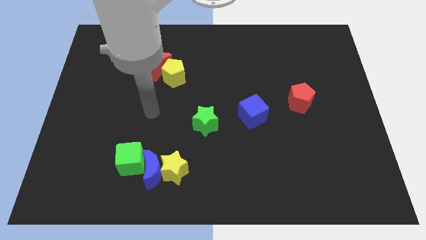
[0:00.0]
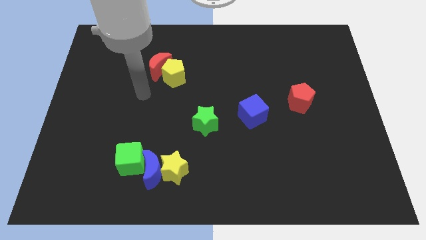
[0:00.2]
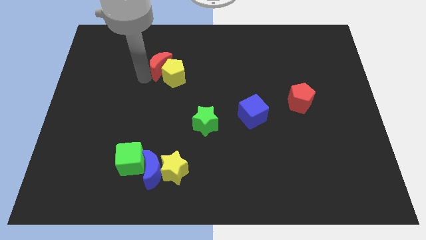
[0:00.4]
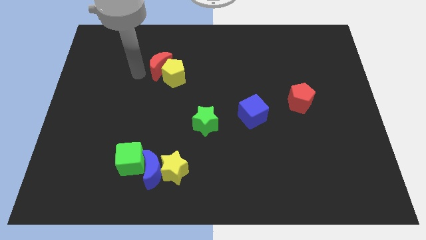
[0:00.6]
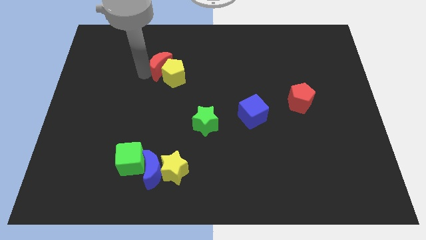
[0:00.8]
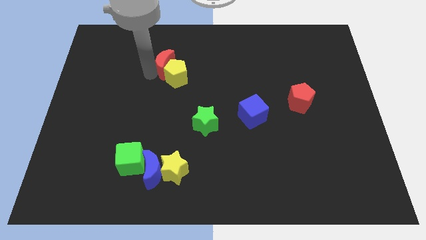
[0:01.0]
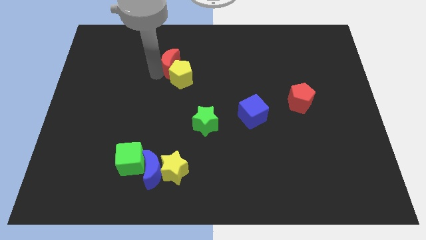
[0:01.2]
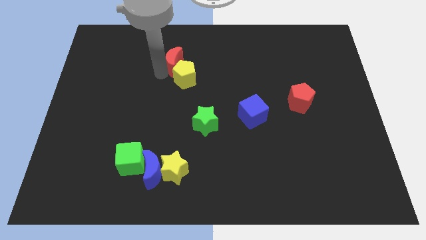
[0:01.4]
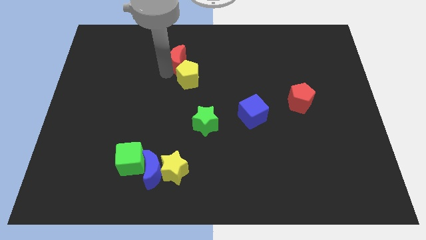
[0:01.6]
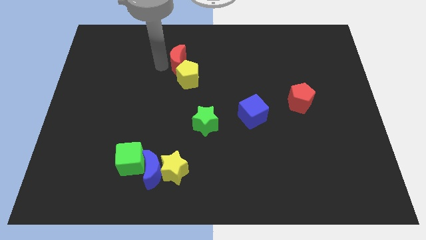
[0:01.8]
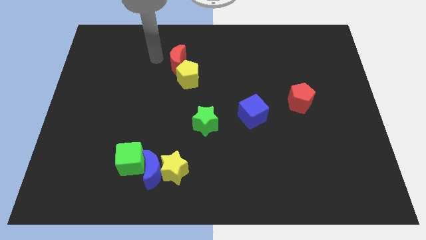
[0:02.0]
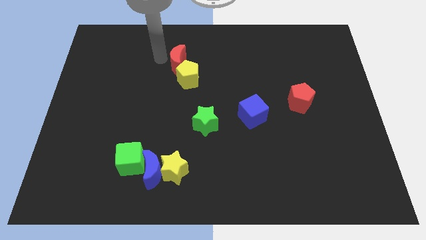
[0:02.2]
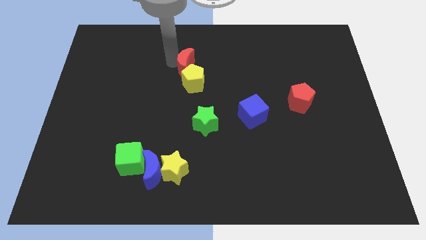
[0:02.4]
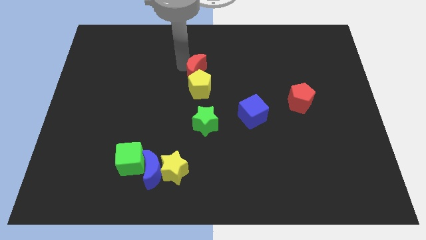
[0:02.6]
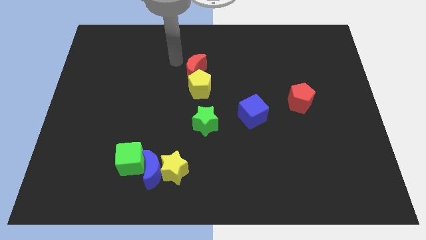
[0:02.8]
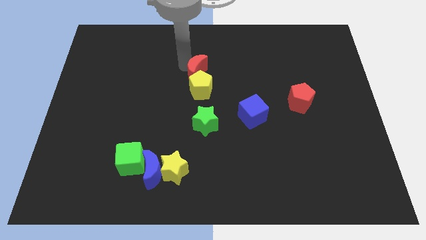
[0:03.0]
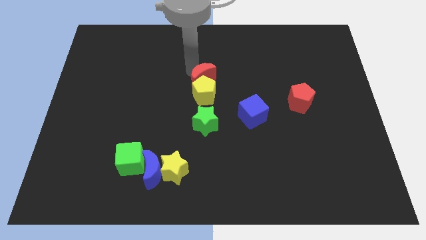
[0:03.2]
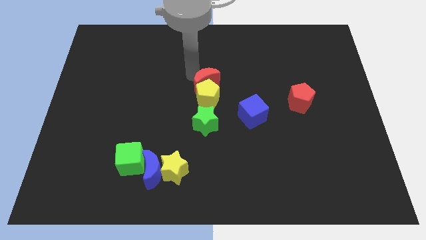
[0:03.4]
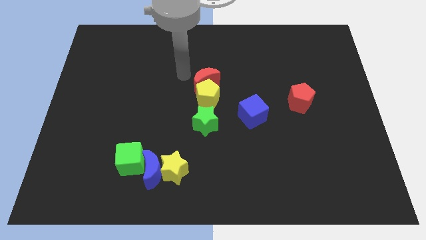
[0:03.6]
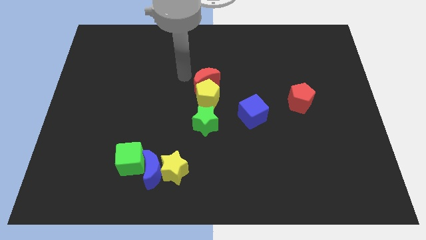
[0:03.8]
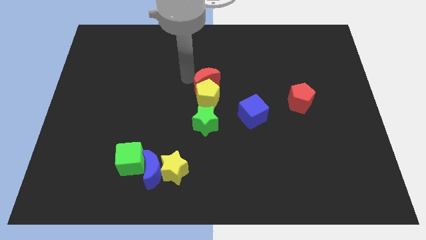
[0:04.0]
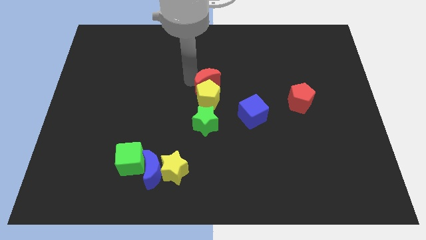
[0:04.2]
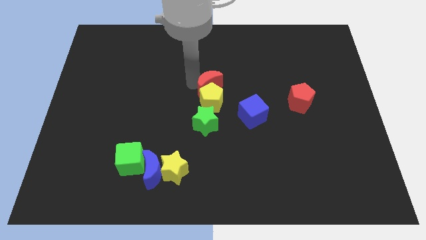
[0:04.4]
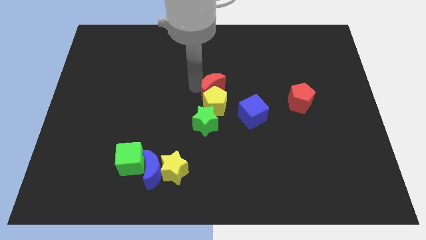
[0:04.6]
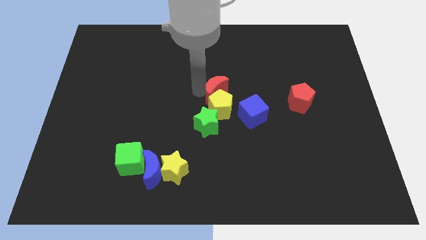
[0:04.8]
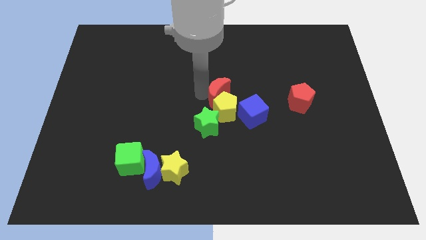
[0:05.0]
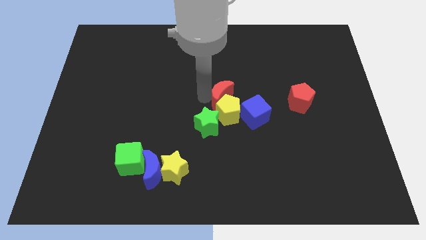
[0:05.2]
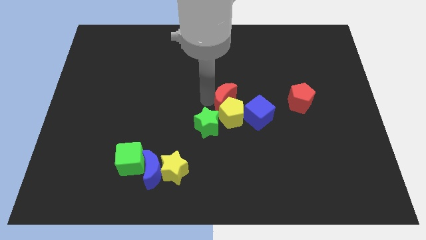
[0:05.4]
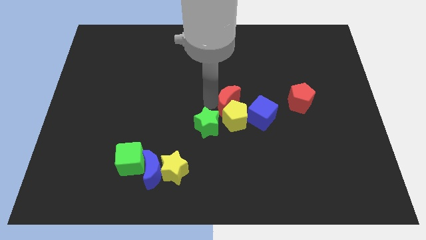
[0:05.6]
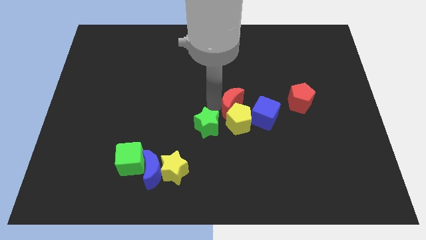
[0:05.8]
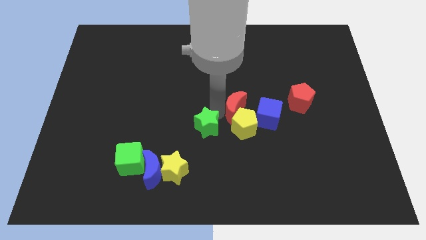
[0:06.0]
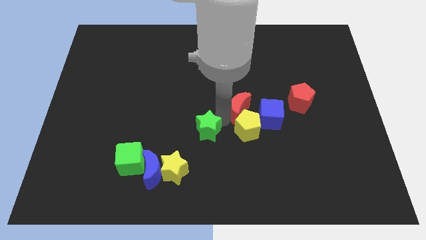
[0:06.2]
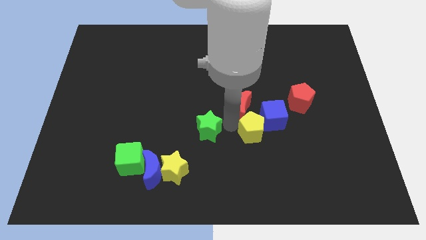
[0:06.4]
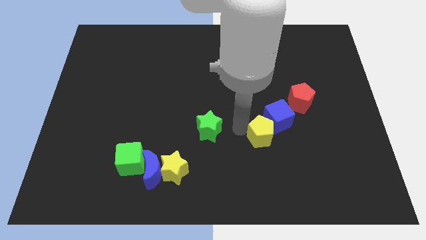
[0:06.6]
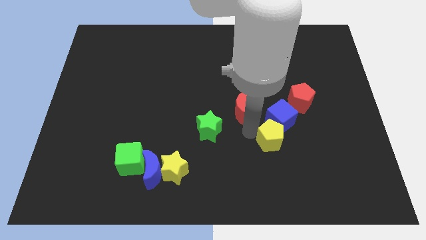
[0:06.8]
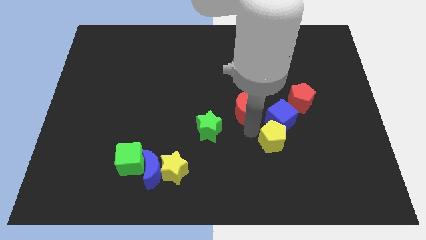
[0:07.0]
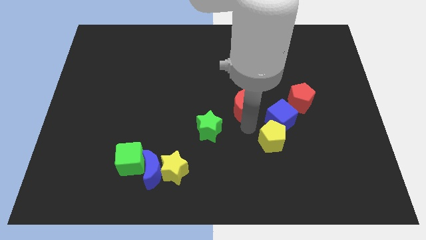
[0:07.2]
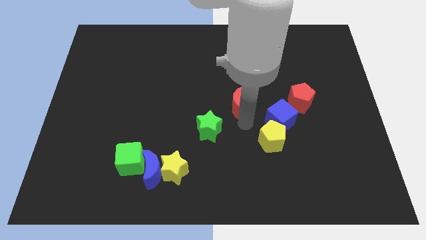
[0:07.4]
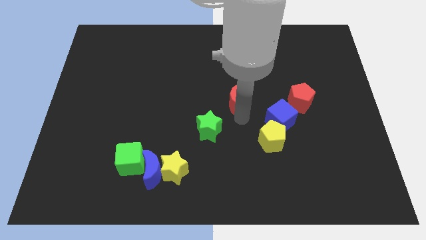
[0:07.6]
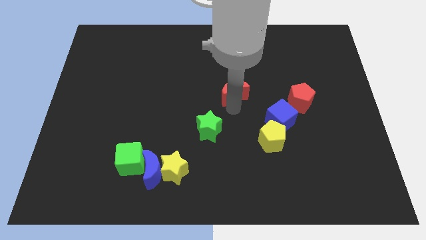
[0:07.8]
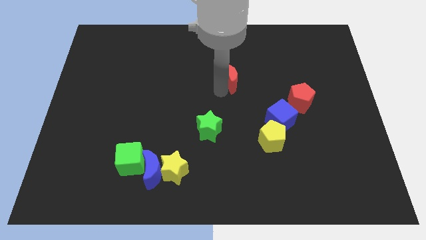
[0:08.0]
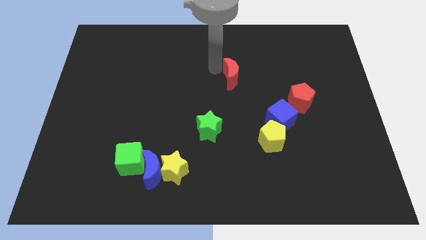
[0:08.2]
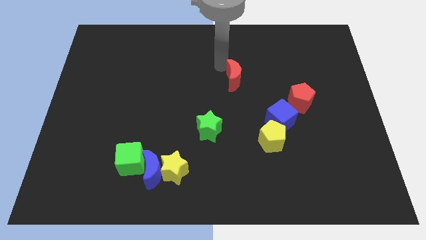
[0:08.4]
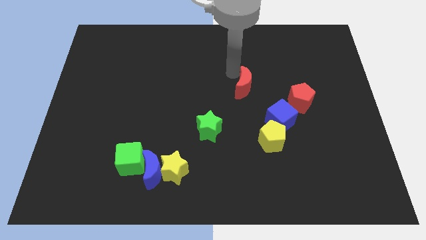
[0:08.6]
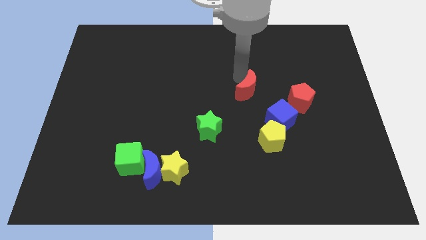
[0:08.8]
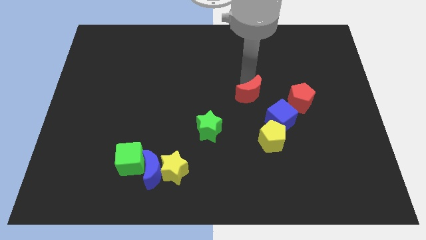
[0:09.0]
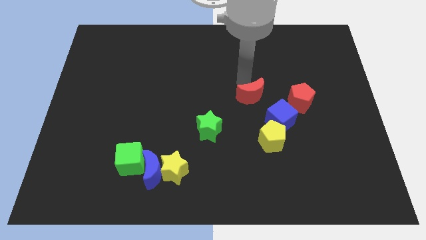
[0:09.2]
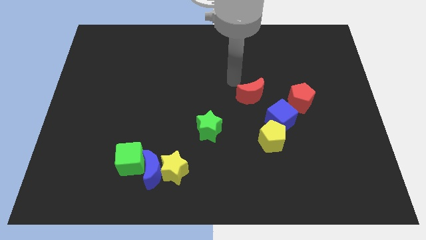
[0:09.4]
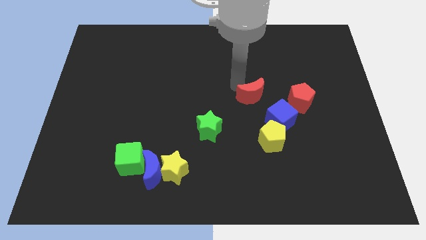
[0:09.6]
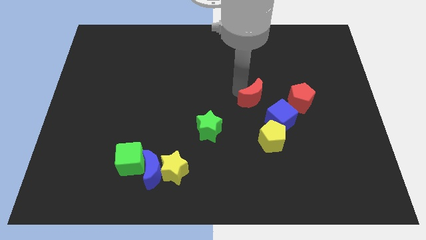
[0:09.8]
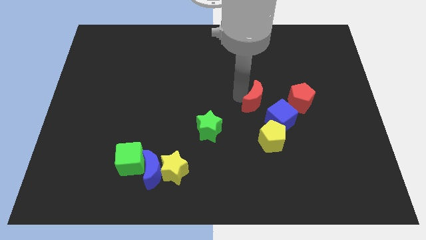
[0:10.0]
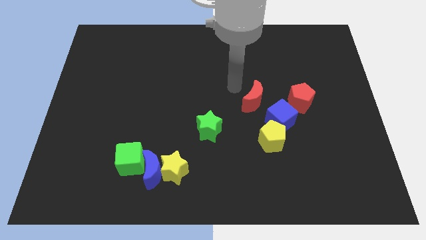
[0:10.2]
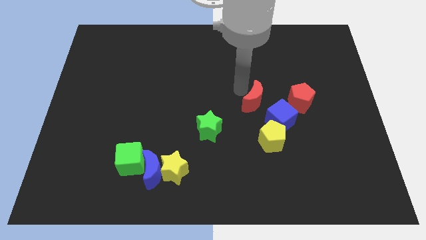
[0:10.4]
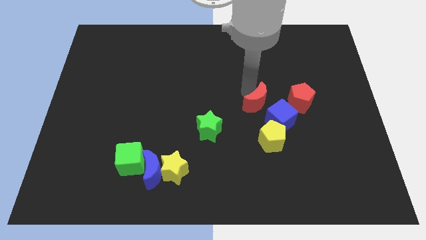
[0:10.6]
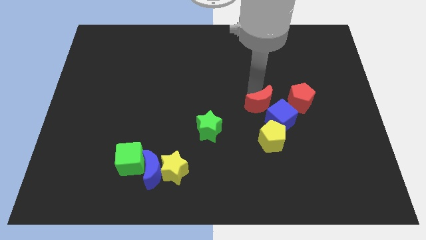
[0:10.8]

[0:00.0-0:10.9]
put the red moon to the blue cube

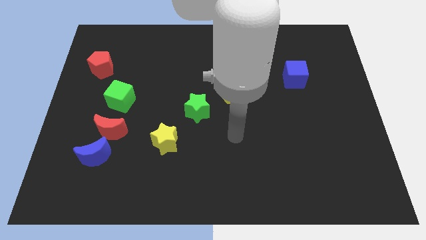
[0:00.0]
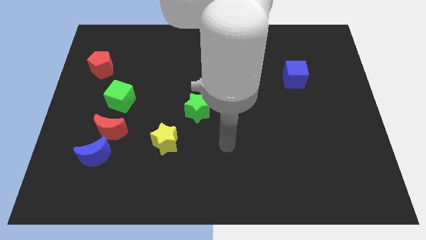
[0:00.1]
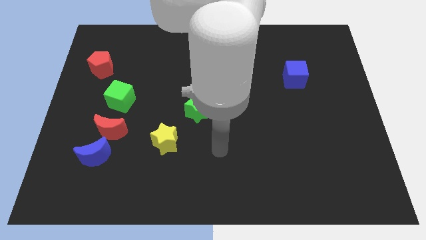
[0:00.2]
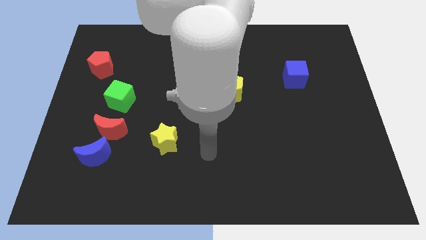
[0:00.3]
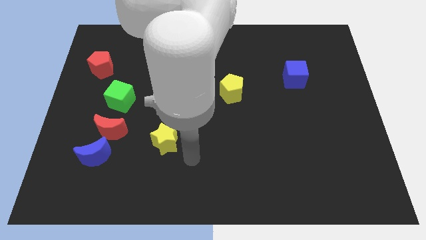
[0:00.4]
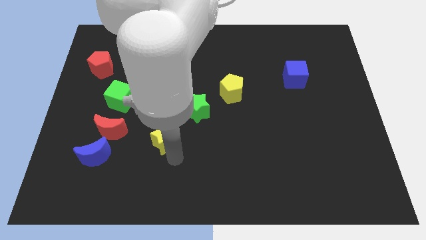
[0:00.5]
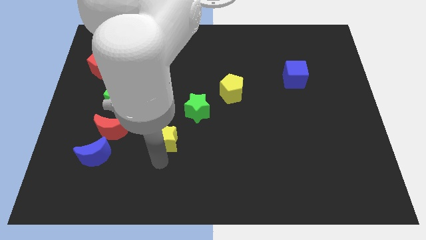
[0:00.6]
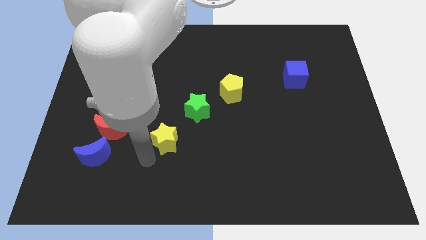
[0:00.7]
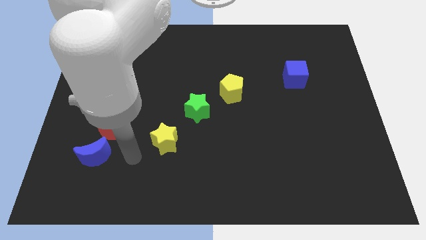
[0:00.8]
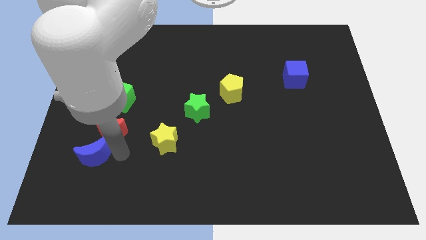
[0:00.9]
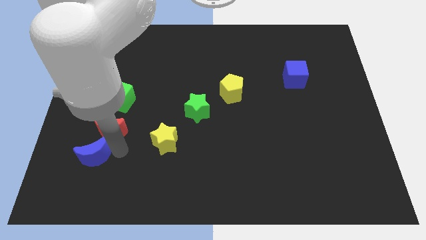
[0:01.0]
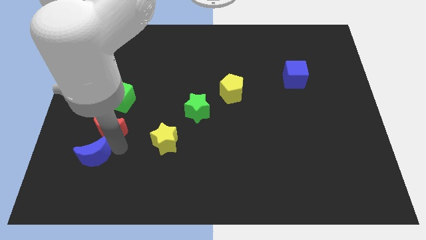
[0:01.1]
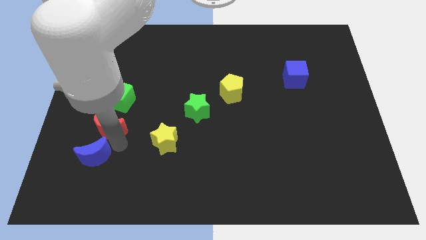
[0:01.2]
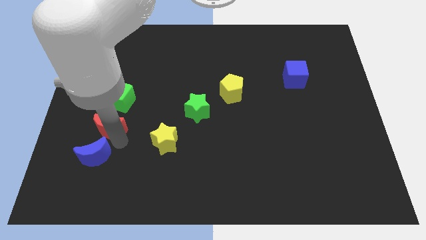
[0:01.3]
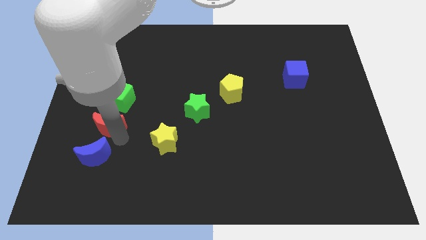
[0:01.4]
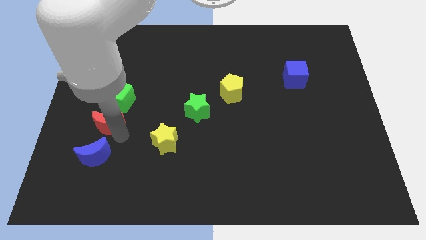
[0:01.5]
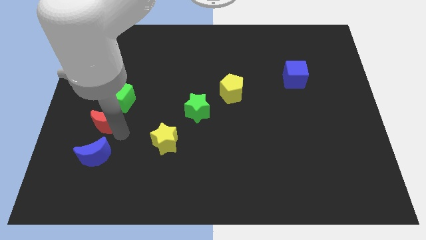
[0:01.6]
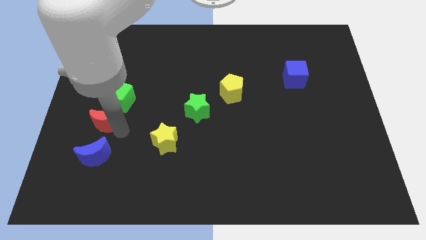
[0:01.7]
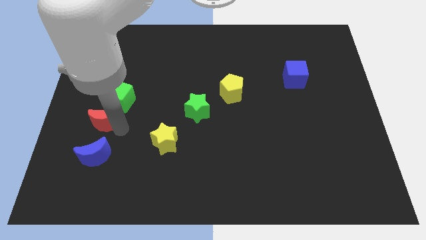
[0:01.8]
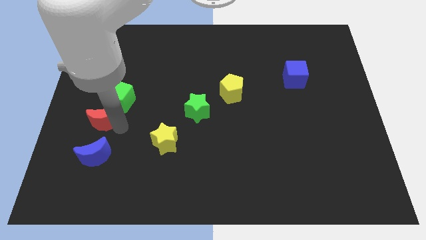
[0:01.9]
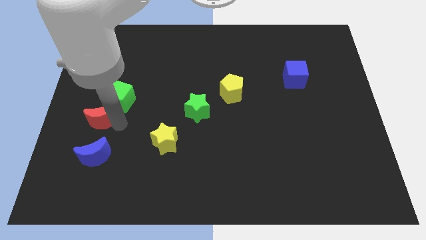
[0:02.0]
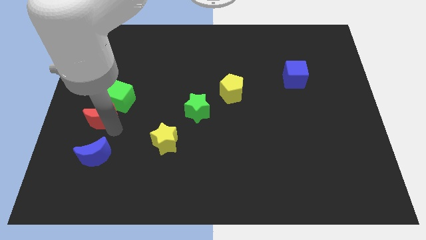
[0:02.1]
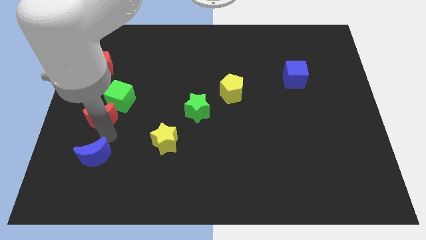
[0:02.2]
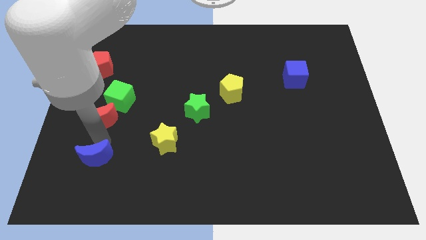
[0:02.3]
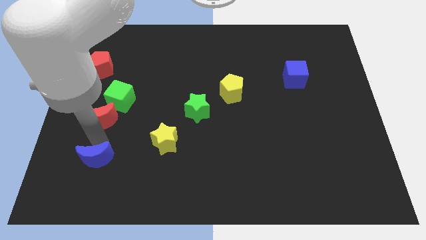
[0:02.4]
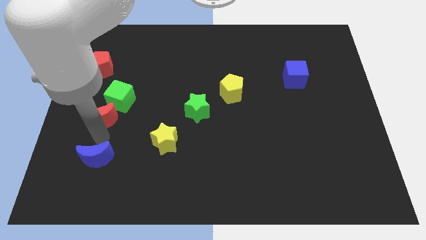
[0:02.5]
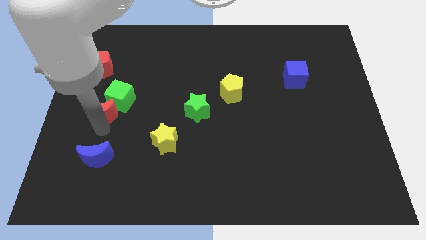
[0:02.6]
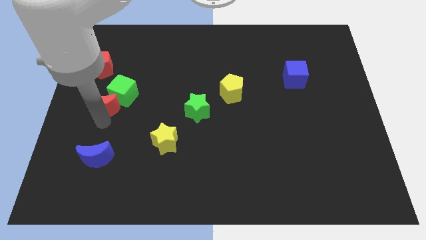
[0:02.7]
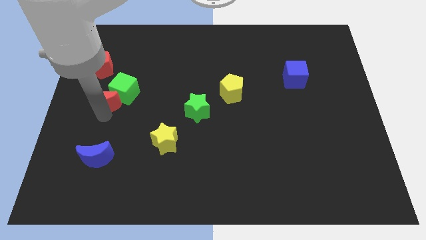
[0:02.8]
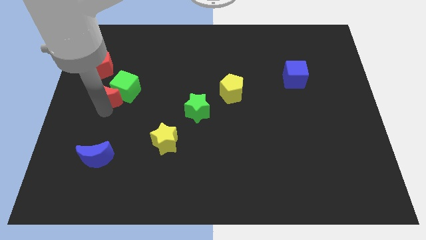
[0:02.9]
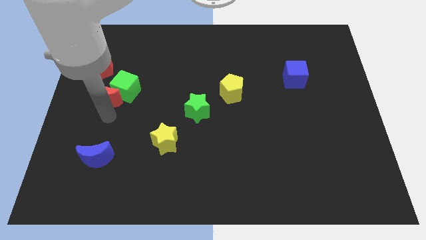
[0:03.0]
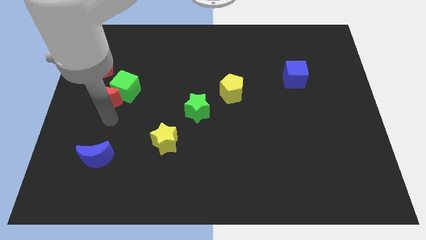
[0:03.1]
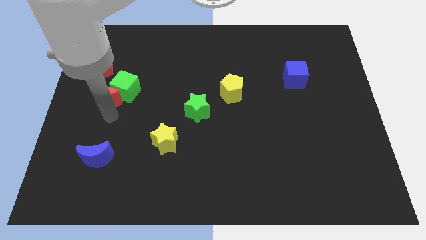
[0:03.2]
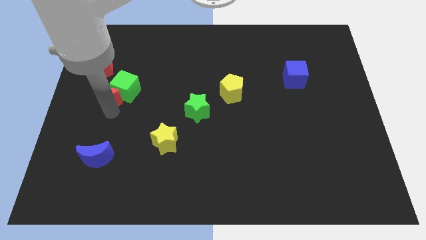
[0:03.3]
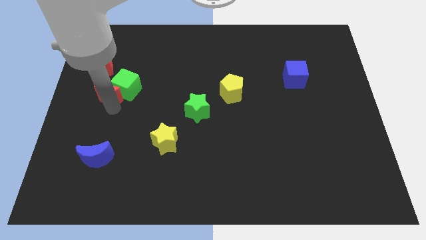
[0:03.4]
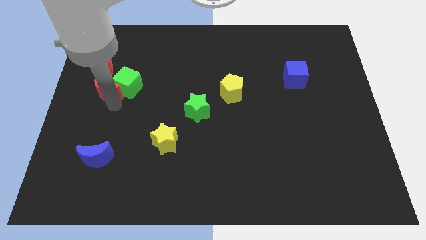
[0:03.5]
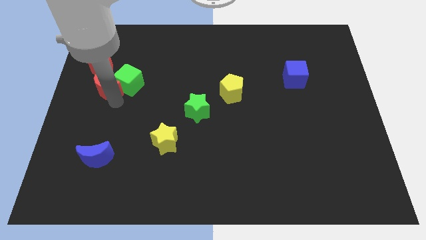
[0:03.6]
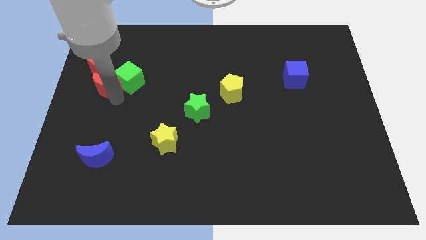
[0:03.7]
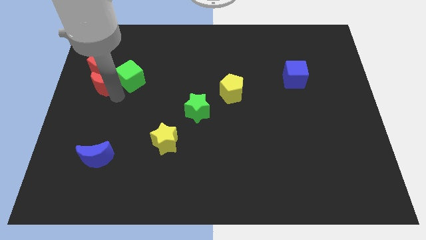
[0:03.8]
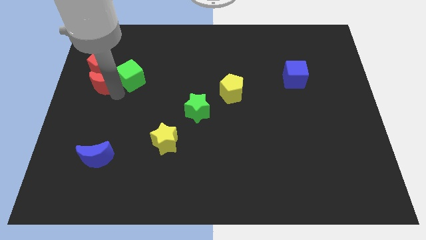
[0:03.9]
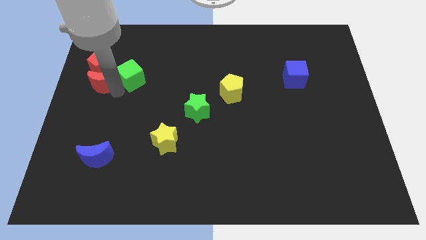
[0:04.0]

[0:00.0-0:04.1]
push the red moon next to the red pentagon
